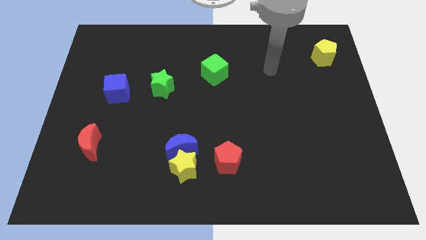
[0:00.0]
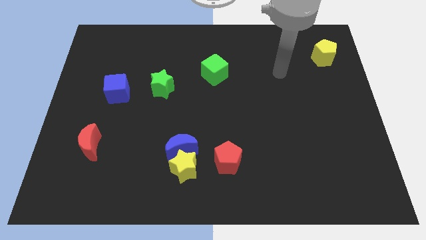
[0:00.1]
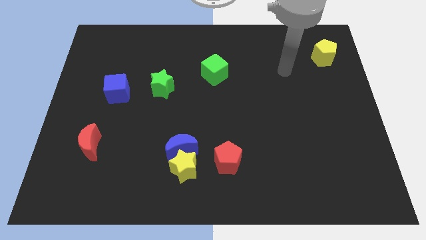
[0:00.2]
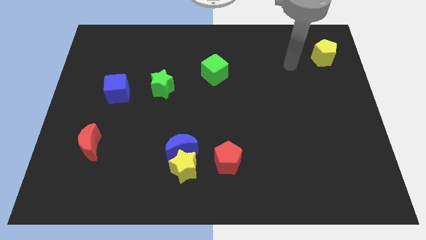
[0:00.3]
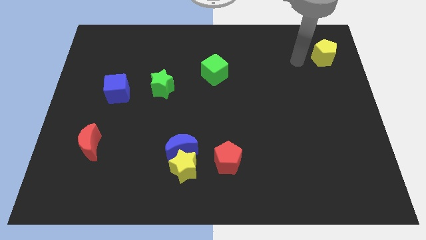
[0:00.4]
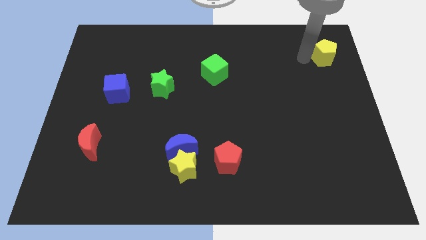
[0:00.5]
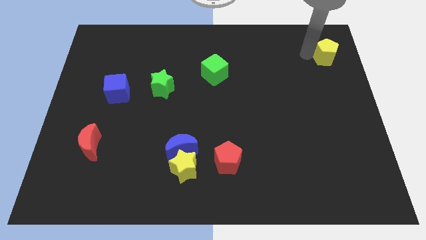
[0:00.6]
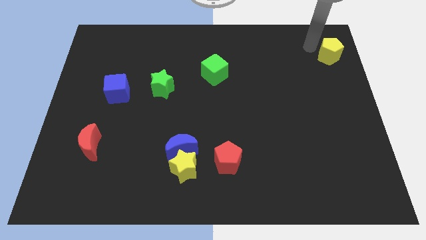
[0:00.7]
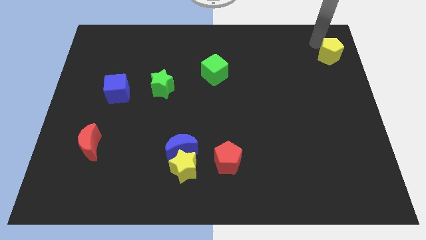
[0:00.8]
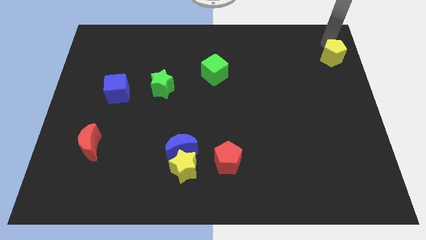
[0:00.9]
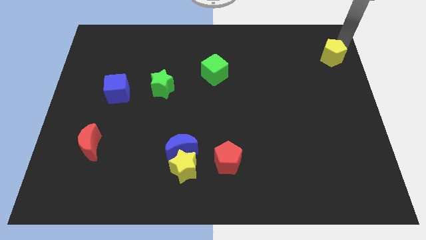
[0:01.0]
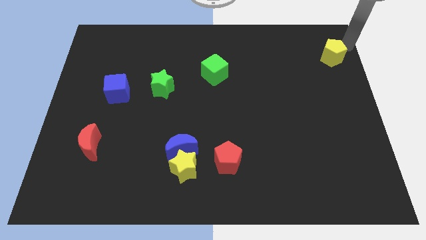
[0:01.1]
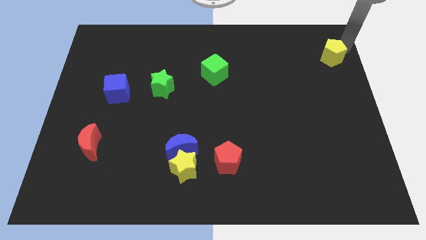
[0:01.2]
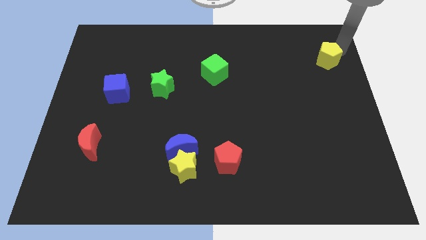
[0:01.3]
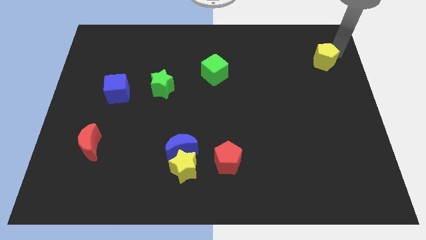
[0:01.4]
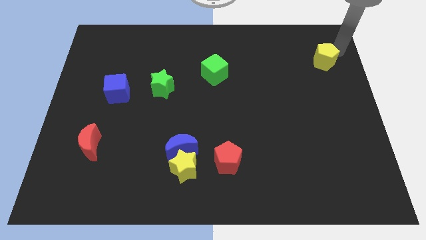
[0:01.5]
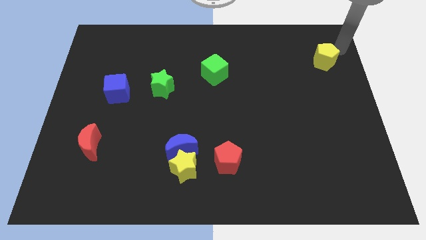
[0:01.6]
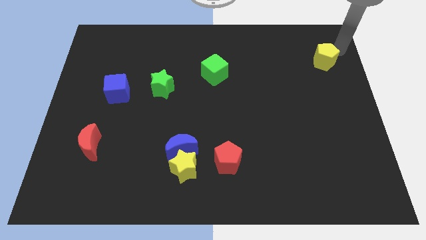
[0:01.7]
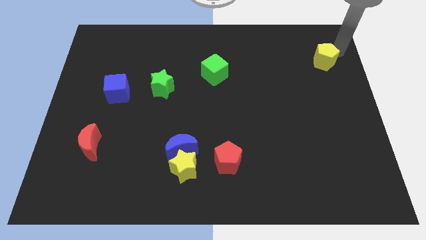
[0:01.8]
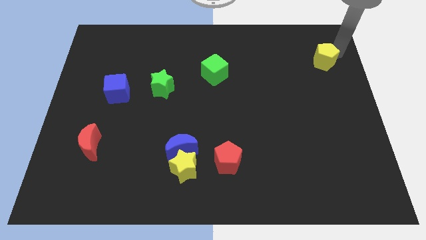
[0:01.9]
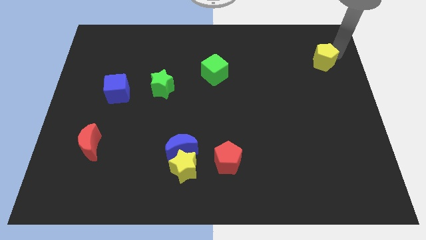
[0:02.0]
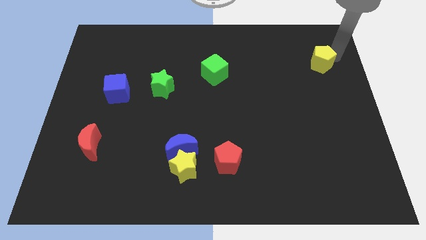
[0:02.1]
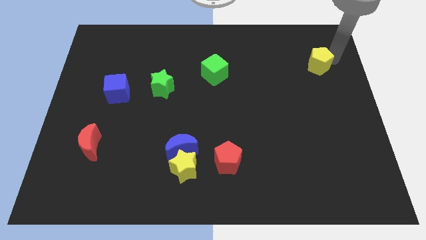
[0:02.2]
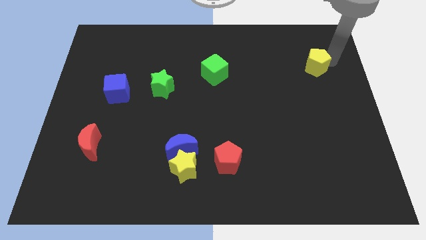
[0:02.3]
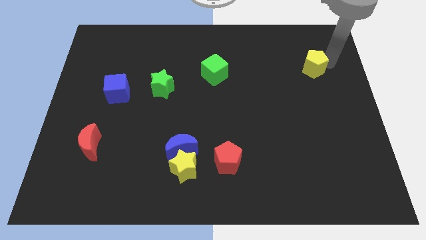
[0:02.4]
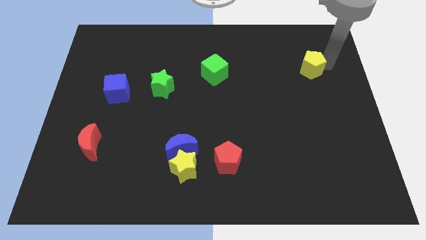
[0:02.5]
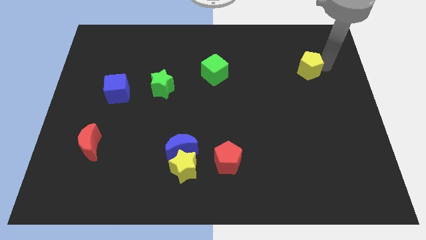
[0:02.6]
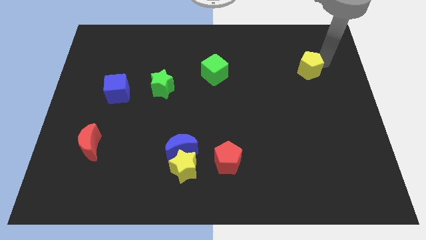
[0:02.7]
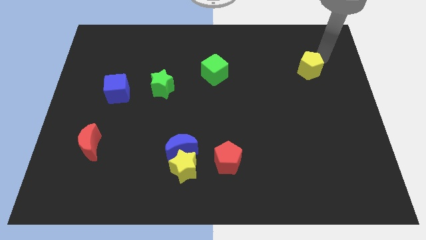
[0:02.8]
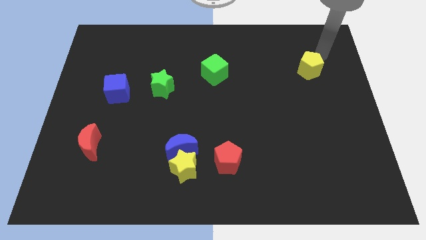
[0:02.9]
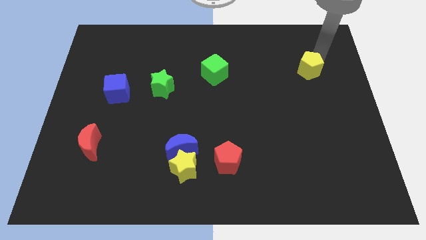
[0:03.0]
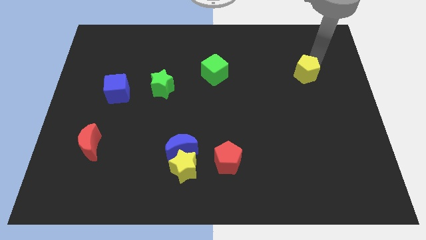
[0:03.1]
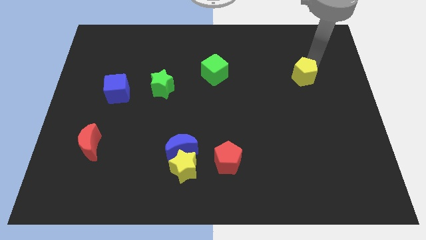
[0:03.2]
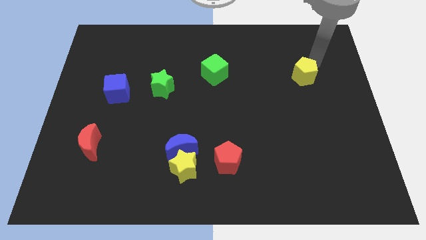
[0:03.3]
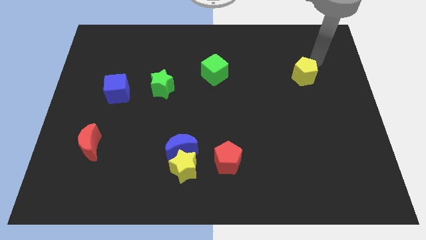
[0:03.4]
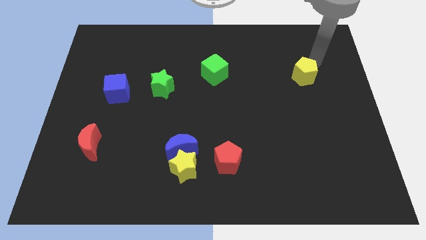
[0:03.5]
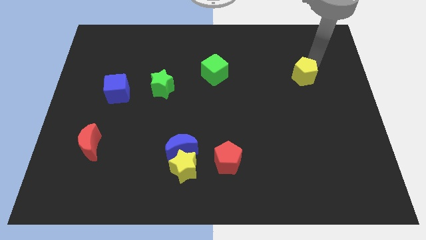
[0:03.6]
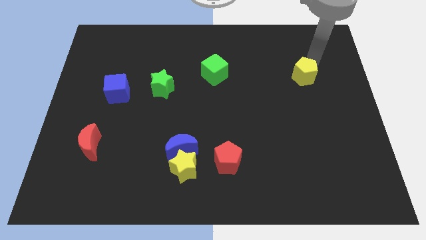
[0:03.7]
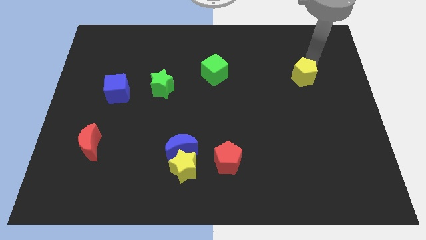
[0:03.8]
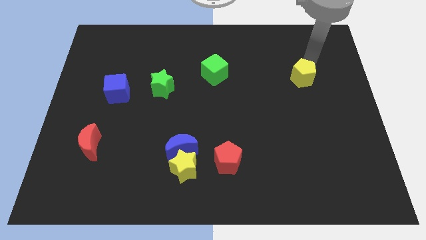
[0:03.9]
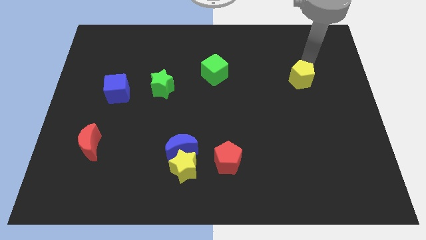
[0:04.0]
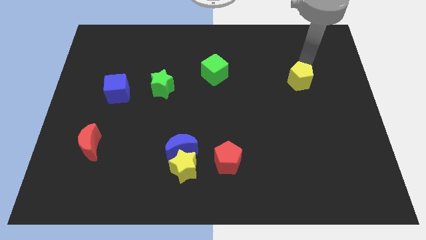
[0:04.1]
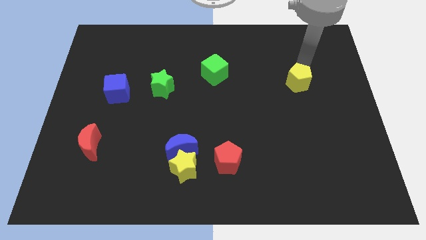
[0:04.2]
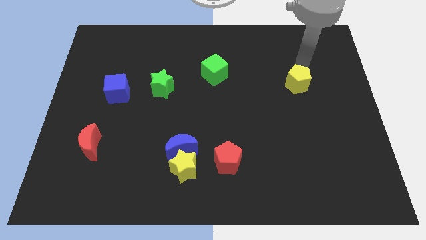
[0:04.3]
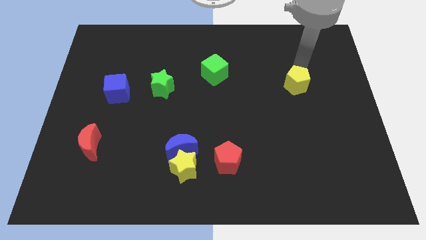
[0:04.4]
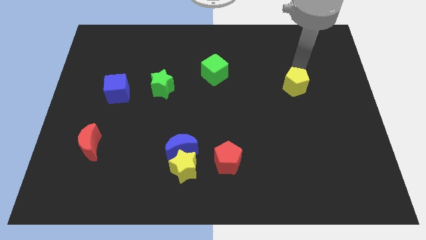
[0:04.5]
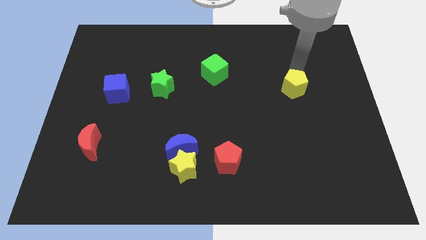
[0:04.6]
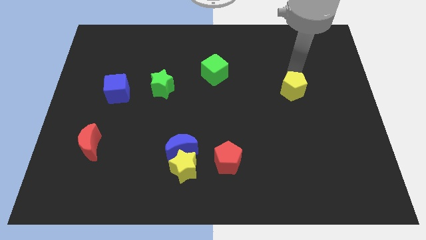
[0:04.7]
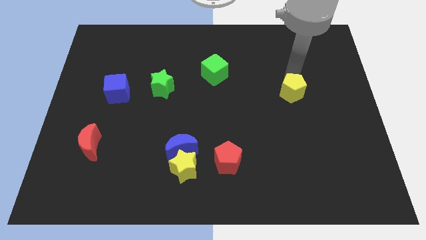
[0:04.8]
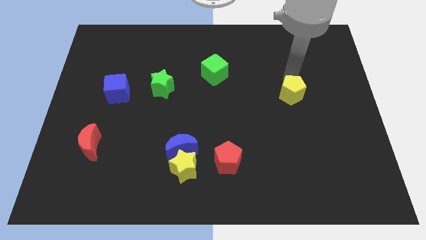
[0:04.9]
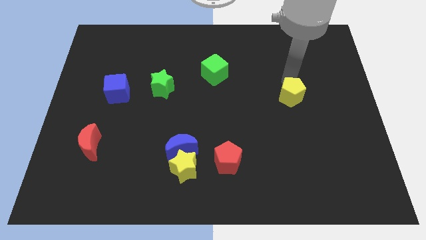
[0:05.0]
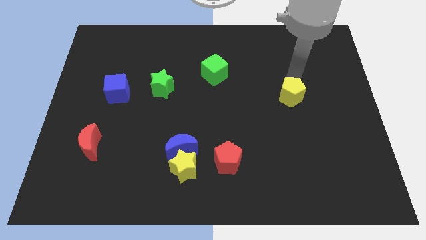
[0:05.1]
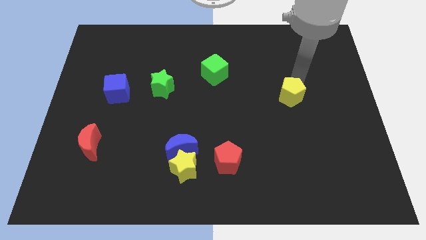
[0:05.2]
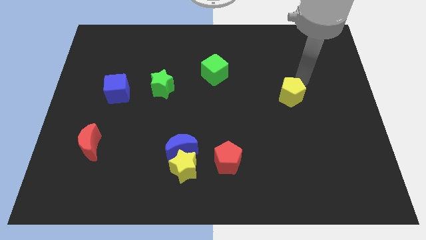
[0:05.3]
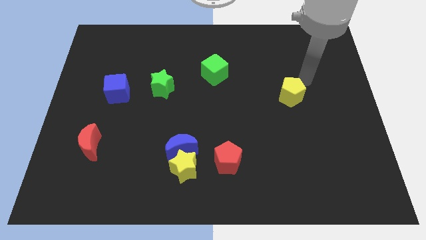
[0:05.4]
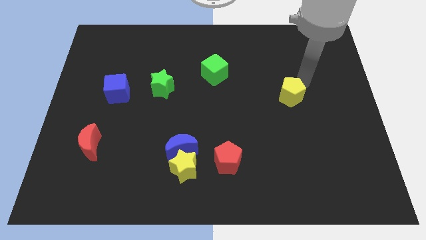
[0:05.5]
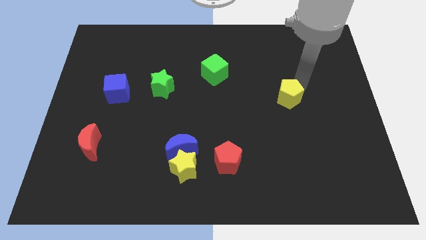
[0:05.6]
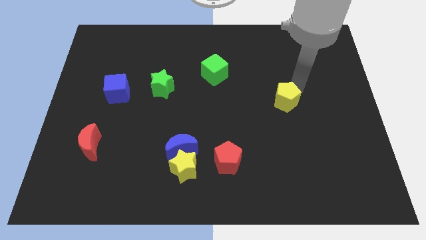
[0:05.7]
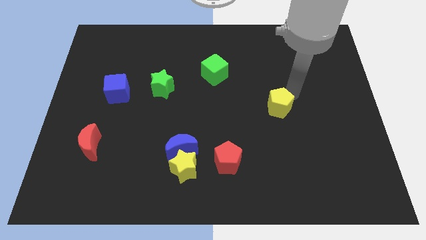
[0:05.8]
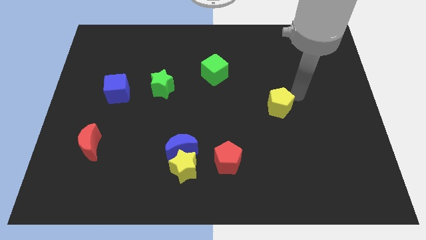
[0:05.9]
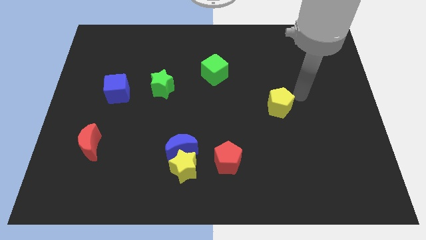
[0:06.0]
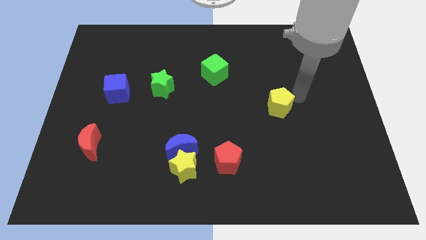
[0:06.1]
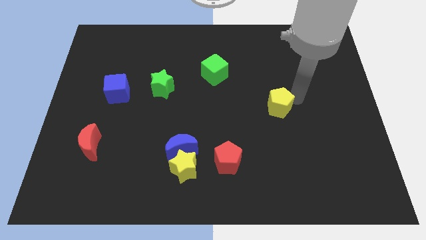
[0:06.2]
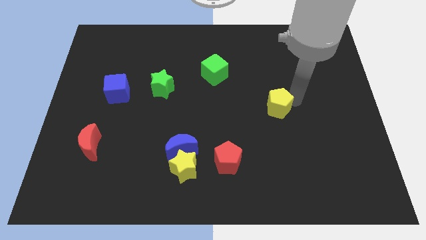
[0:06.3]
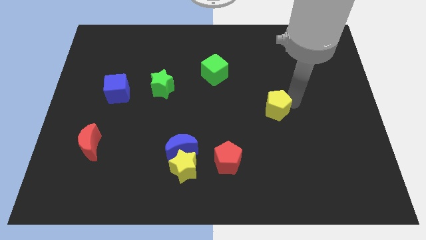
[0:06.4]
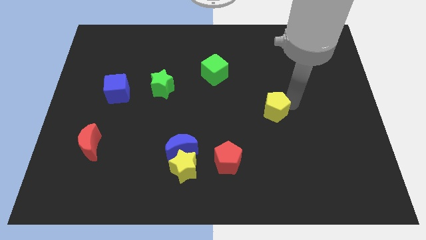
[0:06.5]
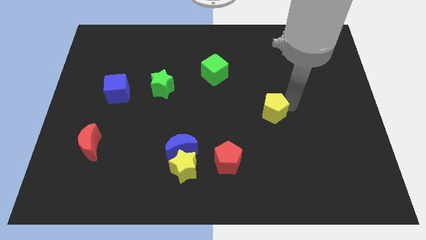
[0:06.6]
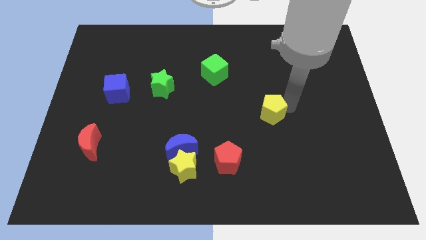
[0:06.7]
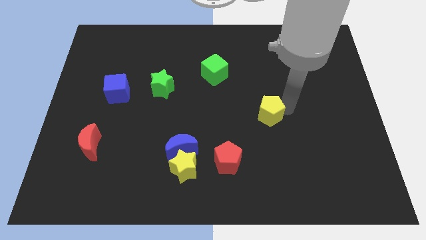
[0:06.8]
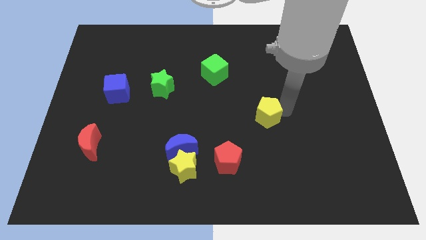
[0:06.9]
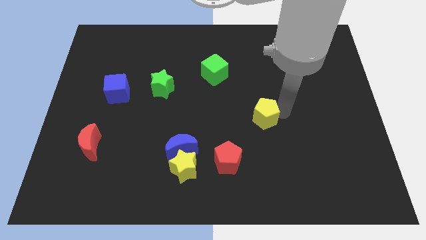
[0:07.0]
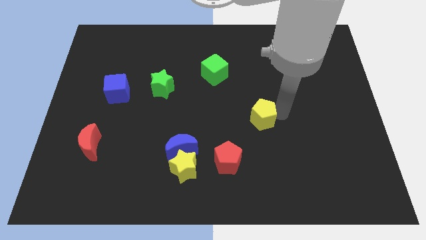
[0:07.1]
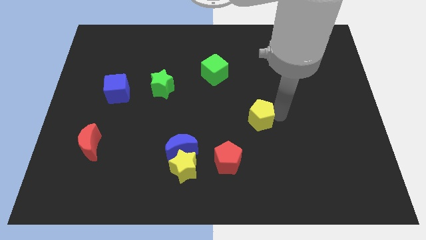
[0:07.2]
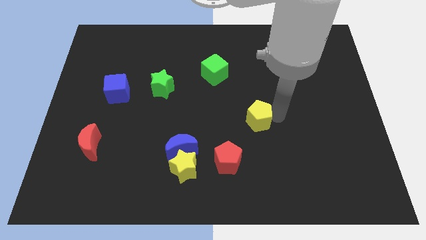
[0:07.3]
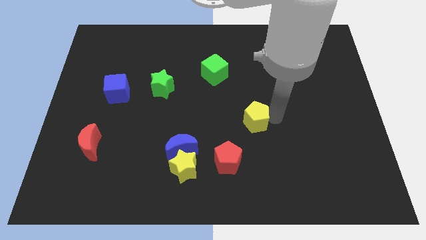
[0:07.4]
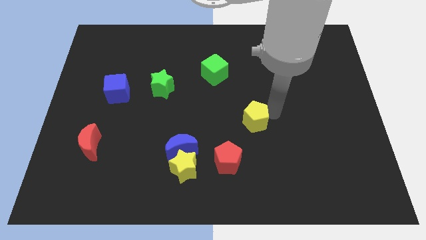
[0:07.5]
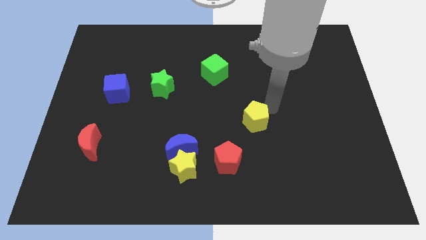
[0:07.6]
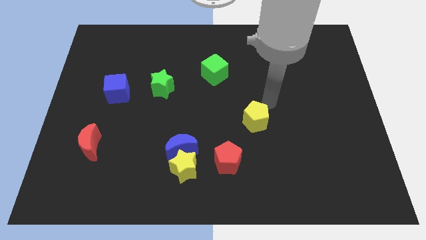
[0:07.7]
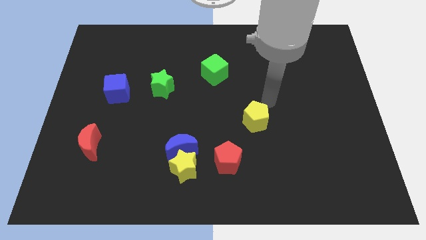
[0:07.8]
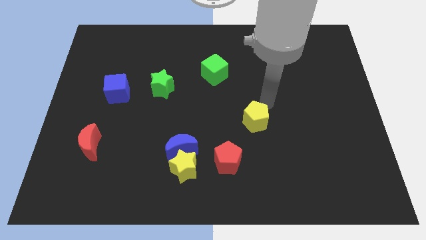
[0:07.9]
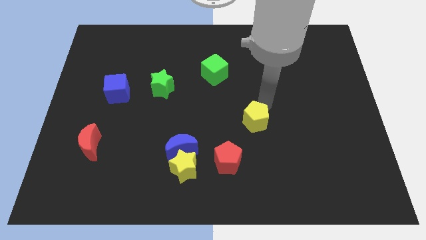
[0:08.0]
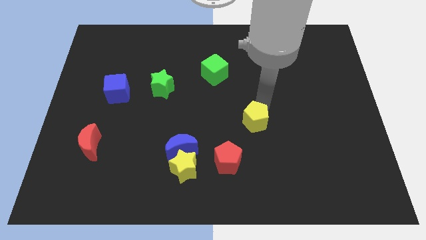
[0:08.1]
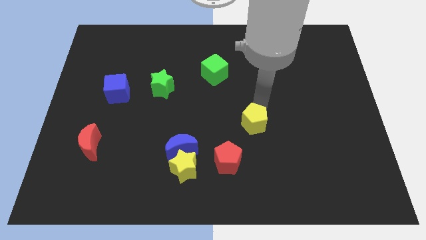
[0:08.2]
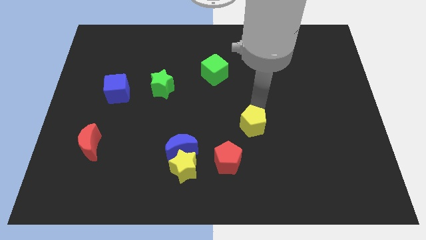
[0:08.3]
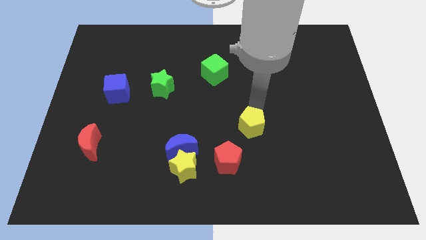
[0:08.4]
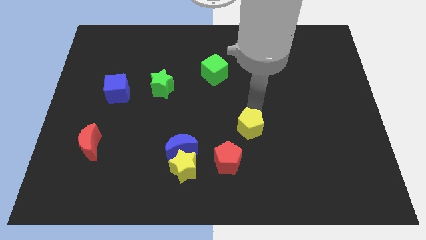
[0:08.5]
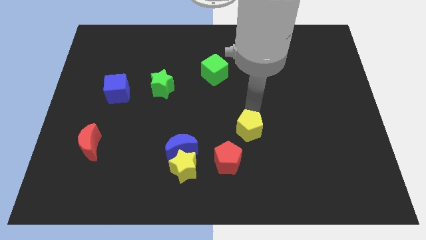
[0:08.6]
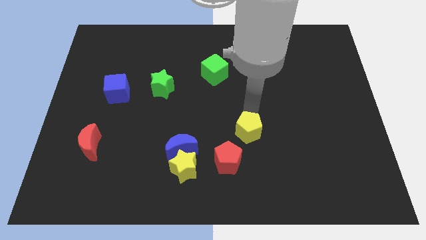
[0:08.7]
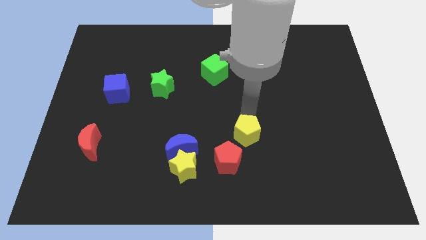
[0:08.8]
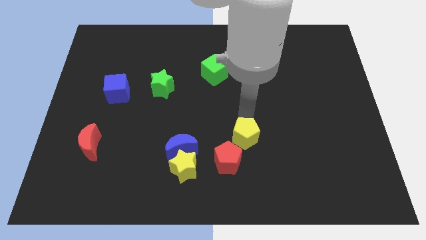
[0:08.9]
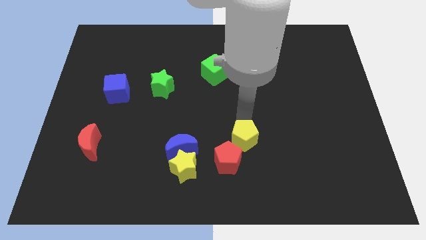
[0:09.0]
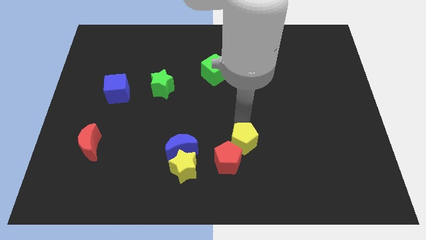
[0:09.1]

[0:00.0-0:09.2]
put the yellow pentagon close to the red pentagon
